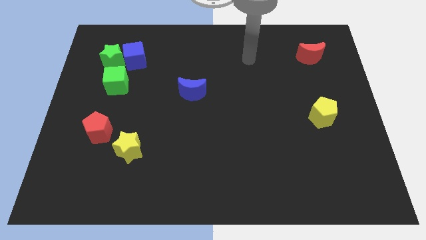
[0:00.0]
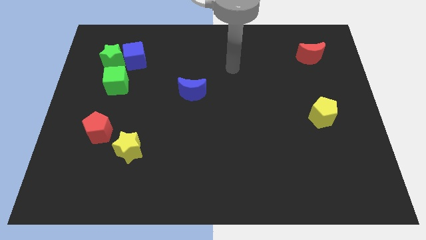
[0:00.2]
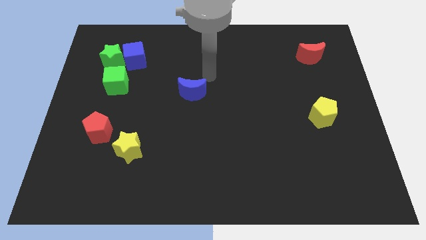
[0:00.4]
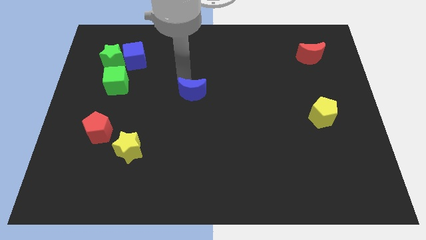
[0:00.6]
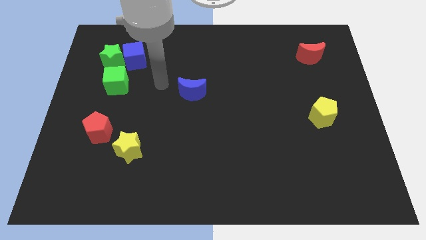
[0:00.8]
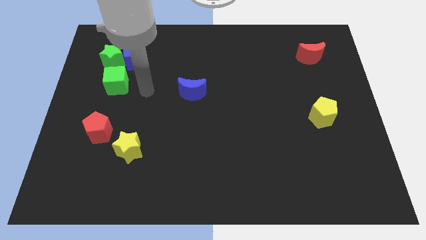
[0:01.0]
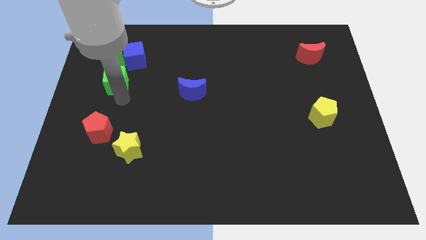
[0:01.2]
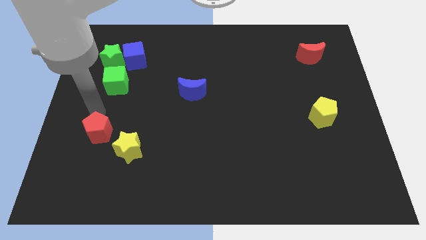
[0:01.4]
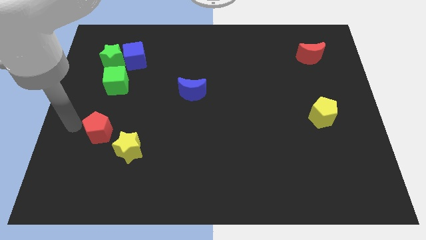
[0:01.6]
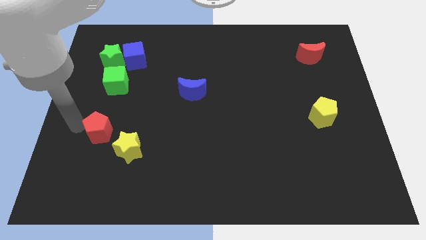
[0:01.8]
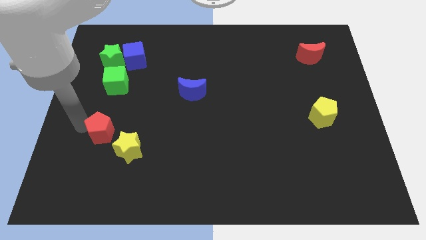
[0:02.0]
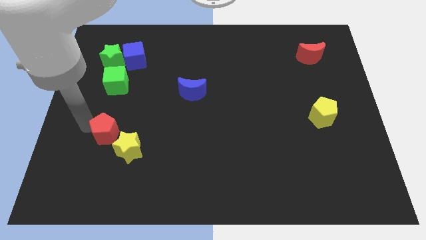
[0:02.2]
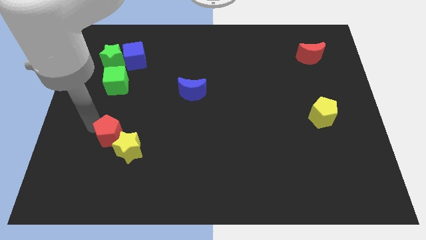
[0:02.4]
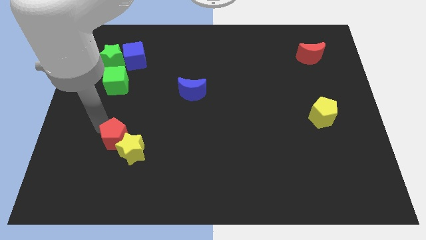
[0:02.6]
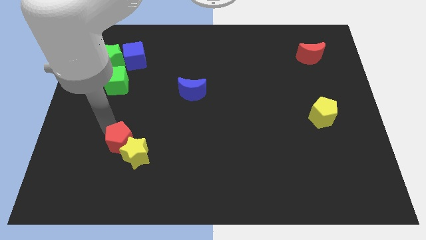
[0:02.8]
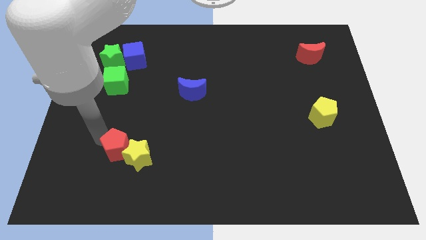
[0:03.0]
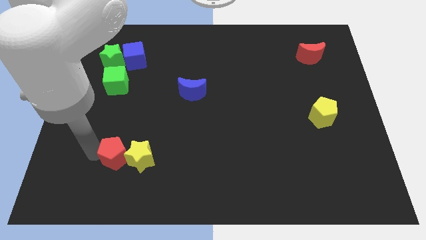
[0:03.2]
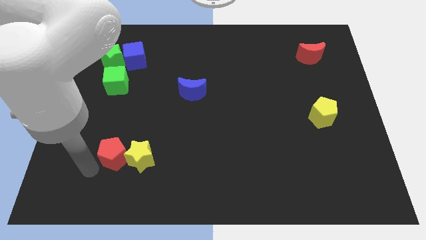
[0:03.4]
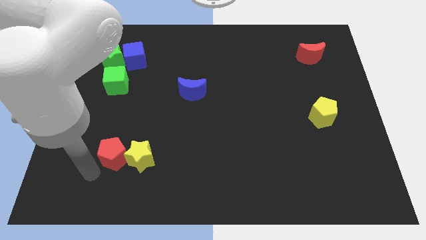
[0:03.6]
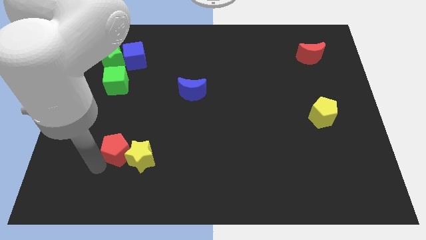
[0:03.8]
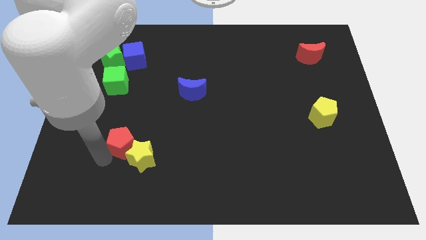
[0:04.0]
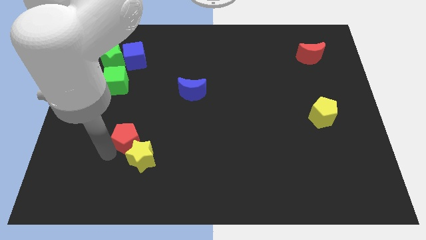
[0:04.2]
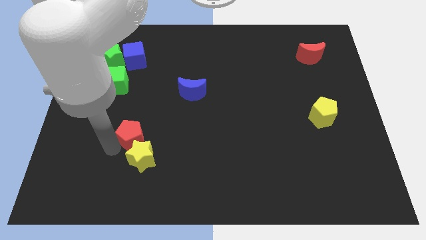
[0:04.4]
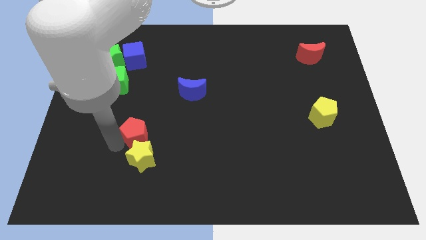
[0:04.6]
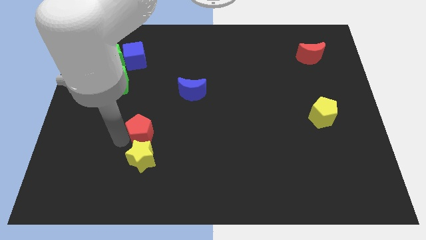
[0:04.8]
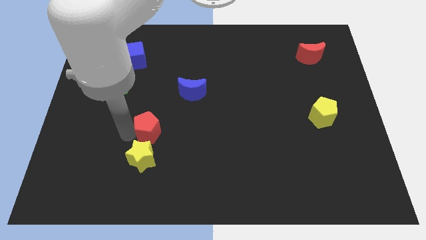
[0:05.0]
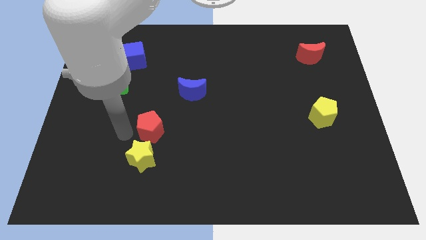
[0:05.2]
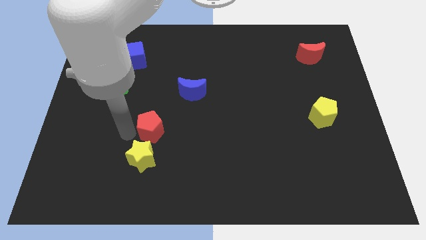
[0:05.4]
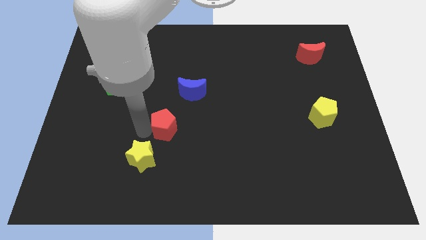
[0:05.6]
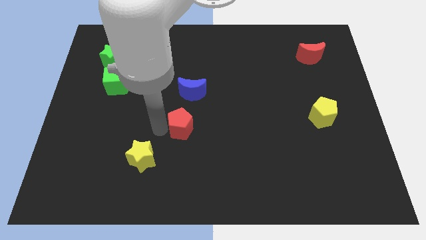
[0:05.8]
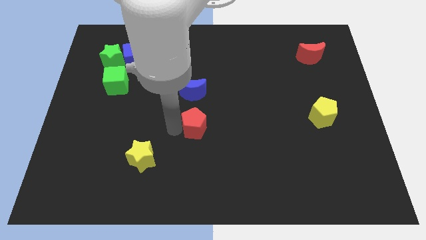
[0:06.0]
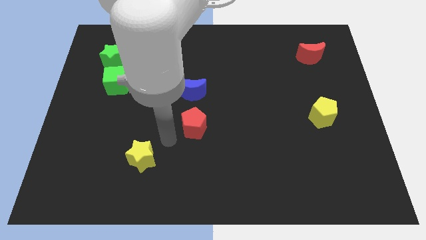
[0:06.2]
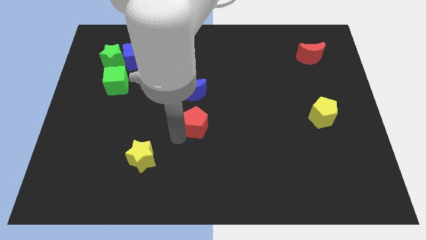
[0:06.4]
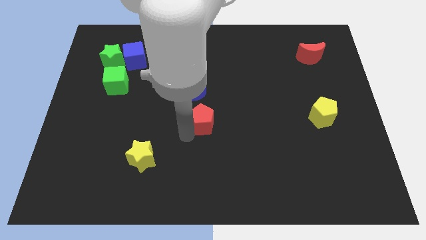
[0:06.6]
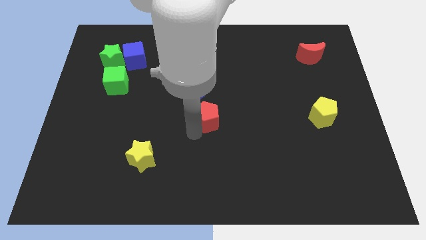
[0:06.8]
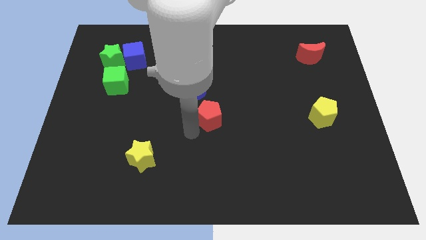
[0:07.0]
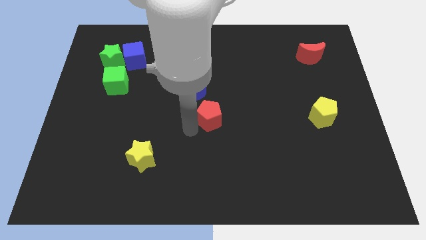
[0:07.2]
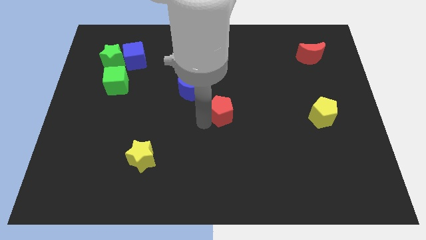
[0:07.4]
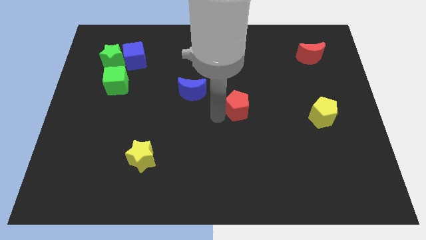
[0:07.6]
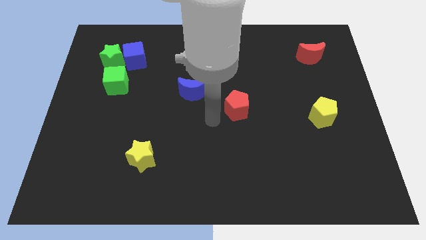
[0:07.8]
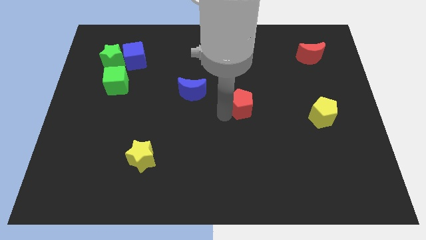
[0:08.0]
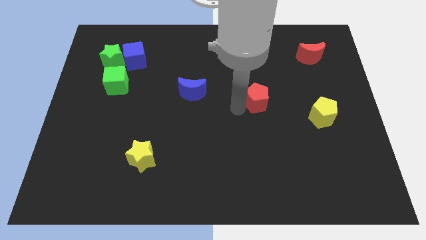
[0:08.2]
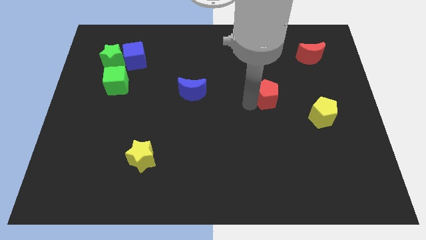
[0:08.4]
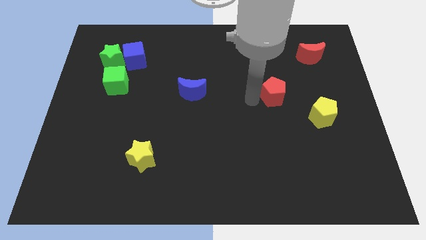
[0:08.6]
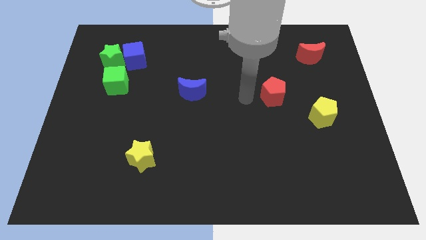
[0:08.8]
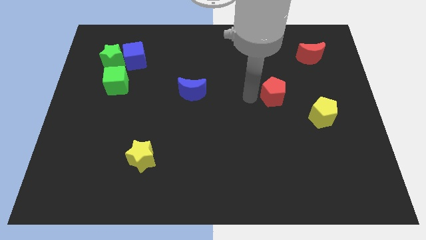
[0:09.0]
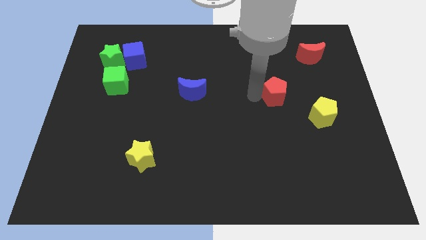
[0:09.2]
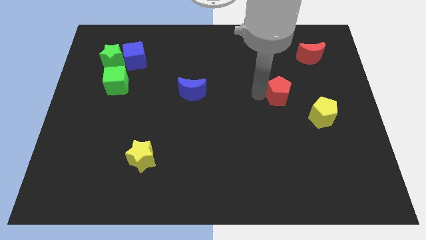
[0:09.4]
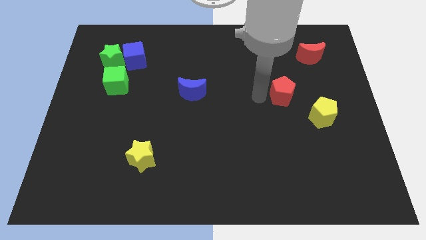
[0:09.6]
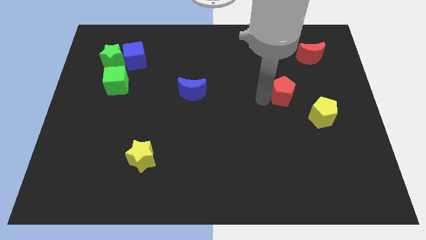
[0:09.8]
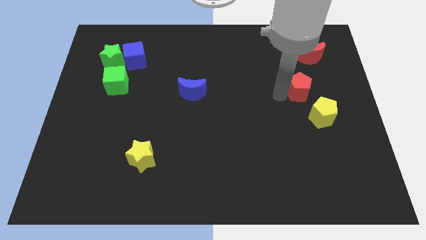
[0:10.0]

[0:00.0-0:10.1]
push the red pentagon to the bottom side of the red moon

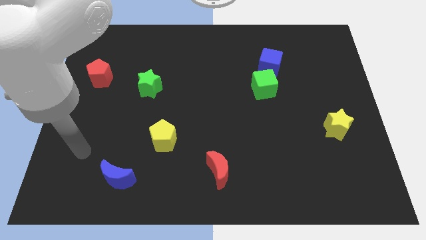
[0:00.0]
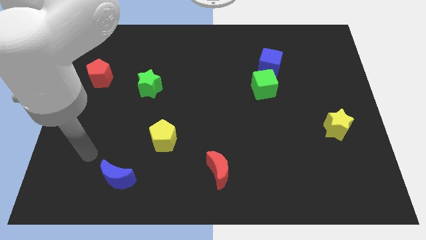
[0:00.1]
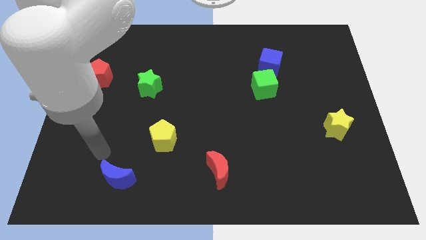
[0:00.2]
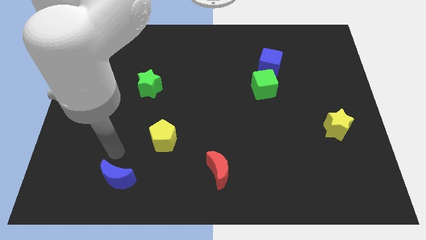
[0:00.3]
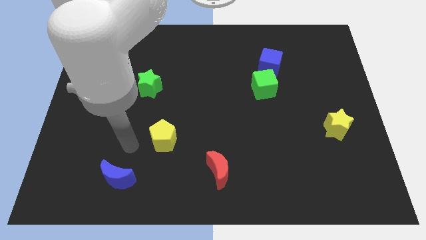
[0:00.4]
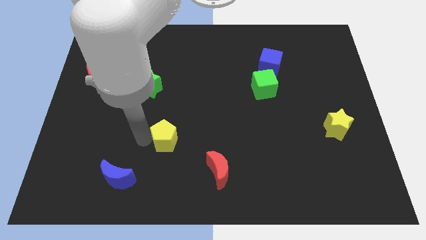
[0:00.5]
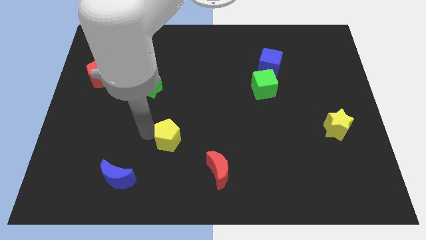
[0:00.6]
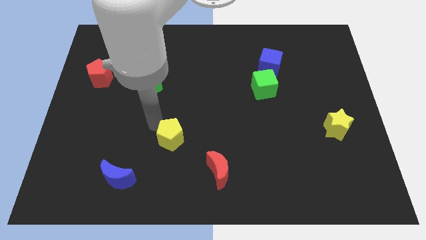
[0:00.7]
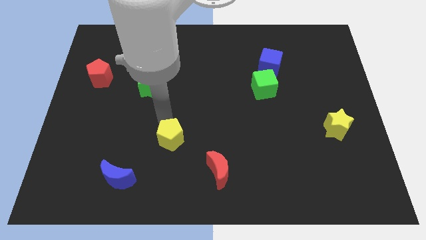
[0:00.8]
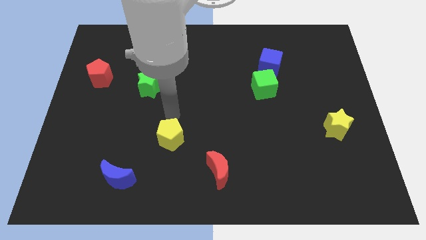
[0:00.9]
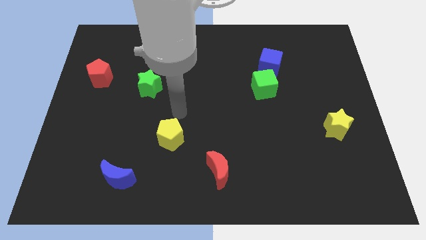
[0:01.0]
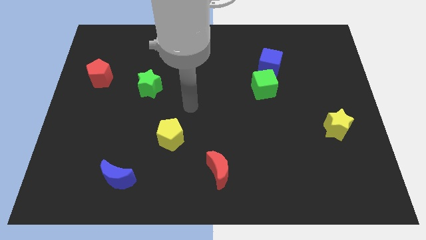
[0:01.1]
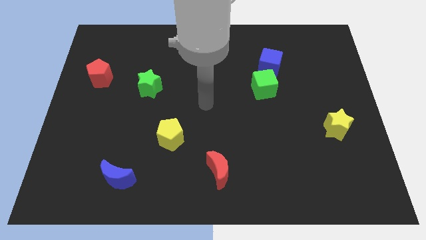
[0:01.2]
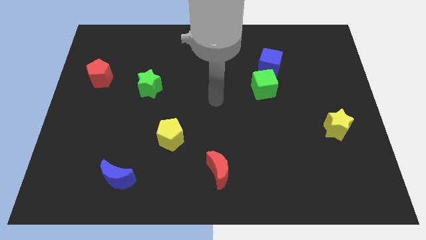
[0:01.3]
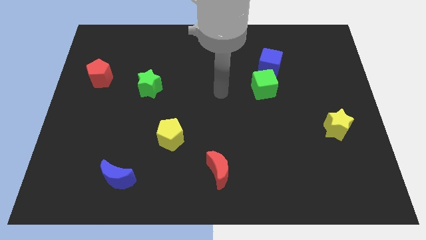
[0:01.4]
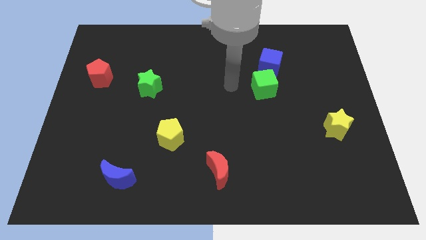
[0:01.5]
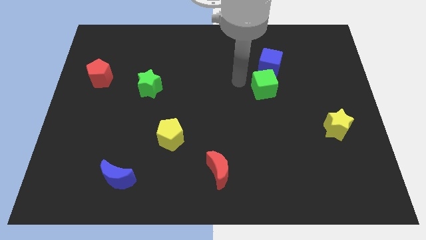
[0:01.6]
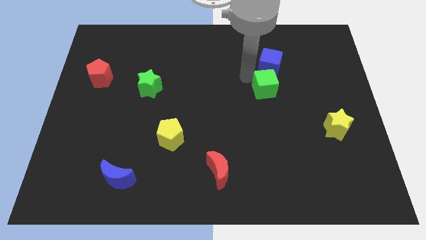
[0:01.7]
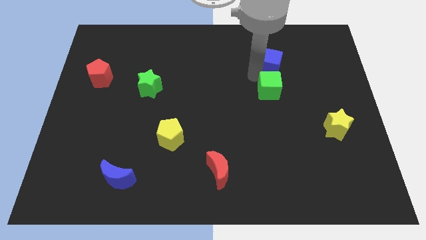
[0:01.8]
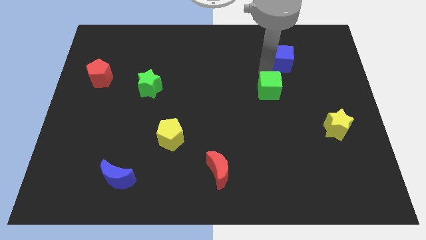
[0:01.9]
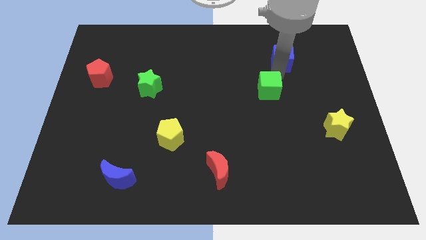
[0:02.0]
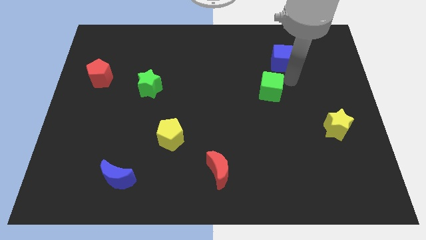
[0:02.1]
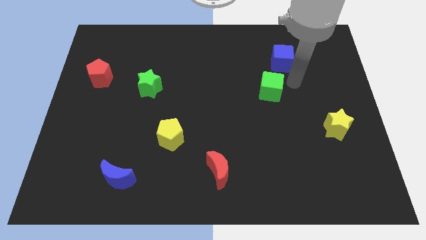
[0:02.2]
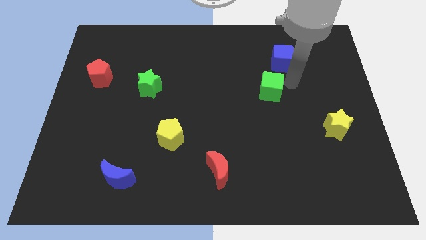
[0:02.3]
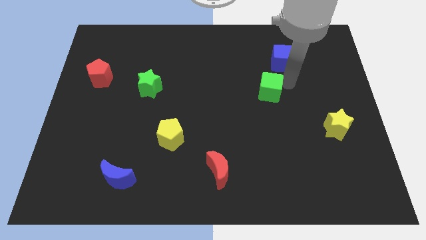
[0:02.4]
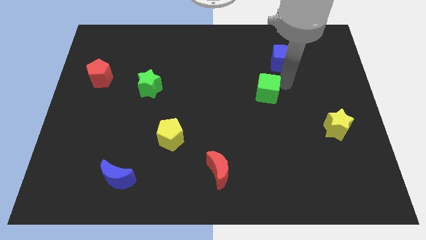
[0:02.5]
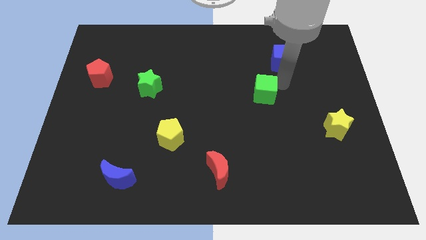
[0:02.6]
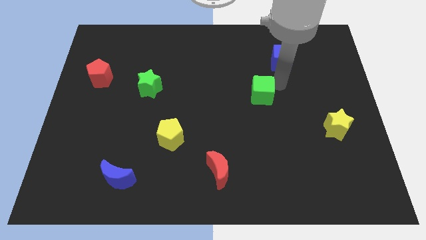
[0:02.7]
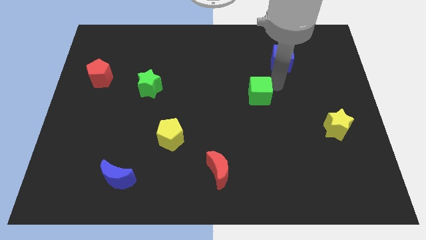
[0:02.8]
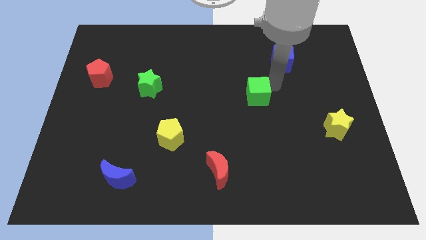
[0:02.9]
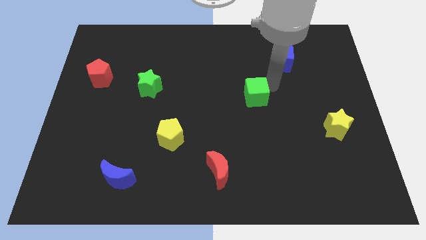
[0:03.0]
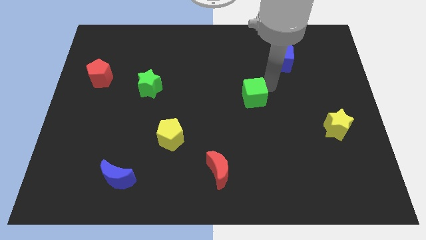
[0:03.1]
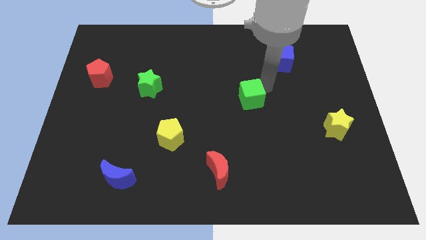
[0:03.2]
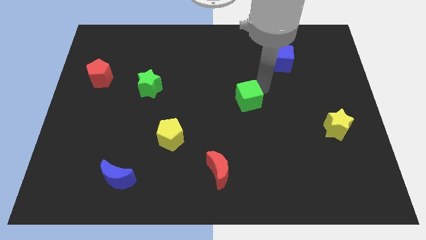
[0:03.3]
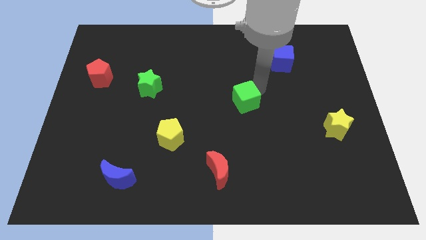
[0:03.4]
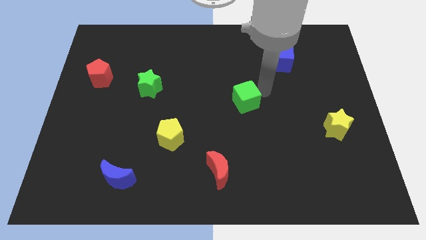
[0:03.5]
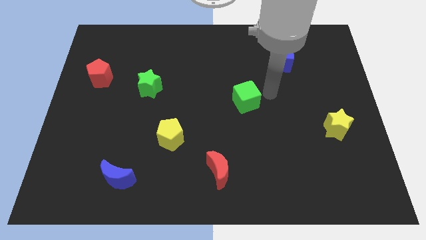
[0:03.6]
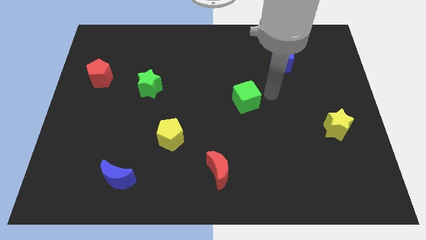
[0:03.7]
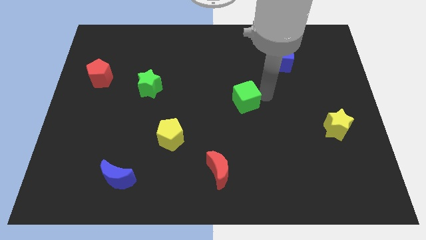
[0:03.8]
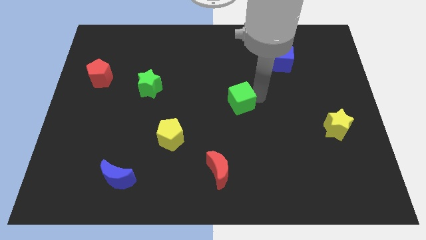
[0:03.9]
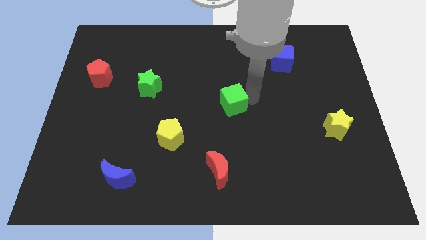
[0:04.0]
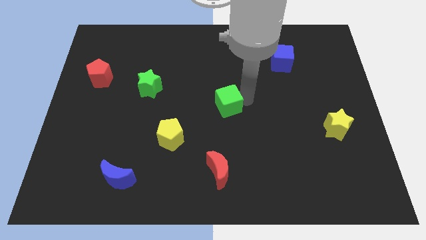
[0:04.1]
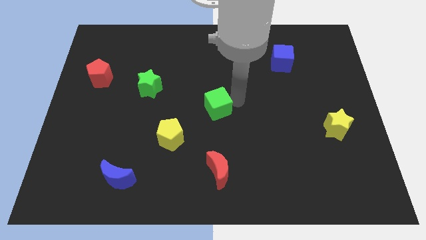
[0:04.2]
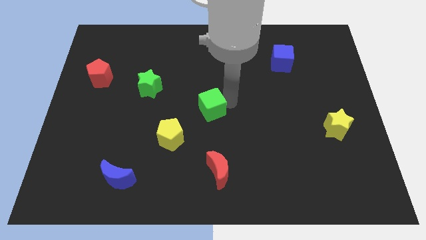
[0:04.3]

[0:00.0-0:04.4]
slide the green cube to the top right side of the yellow pentagon
